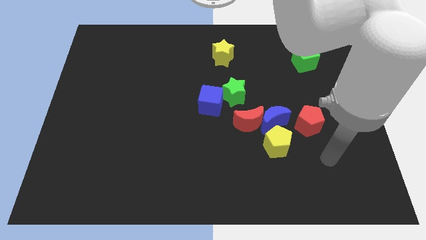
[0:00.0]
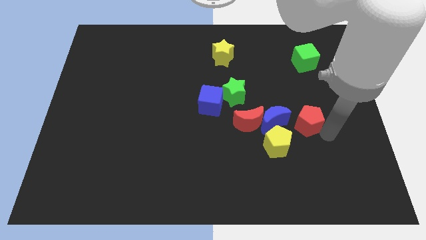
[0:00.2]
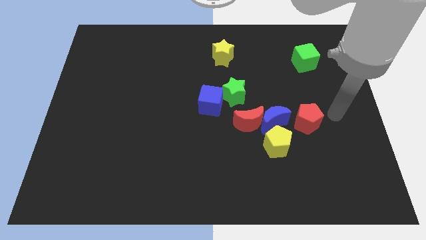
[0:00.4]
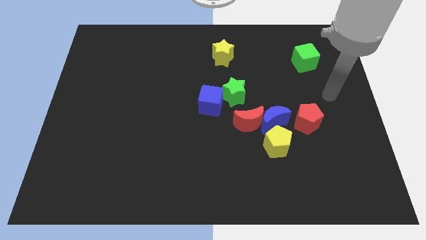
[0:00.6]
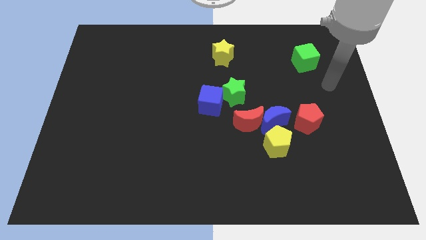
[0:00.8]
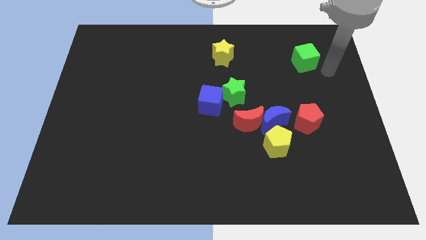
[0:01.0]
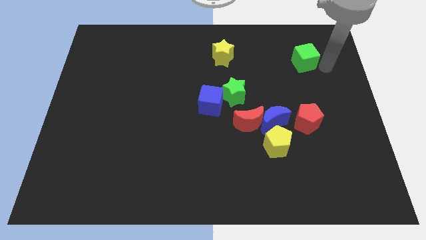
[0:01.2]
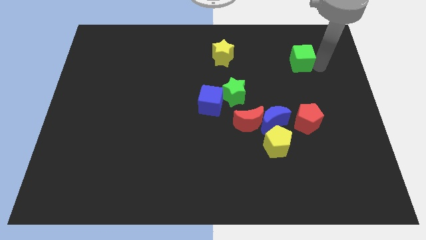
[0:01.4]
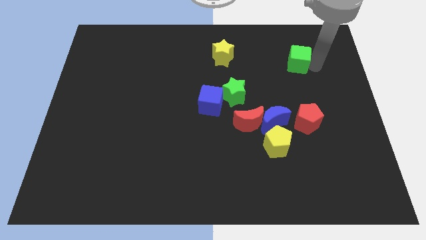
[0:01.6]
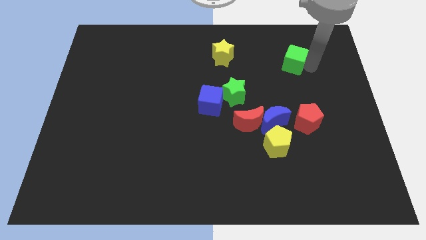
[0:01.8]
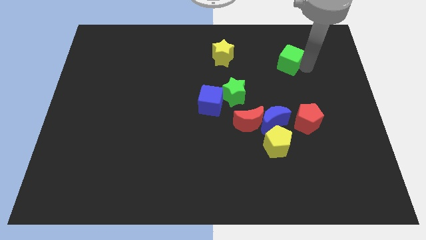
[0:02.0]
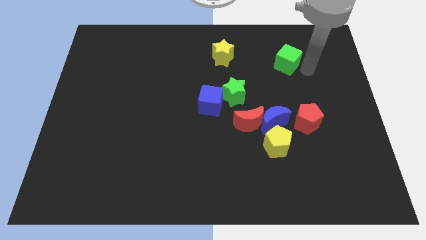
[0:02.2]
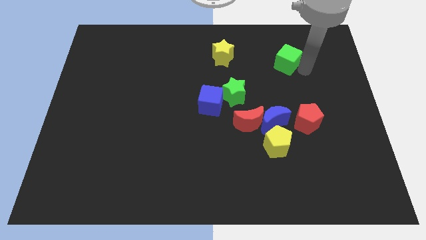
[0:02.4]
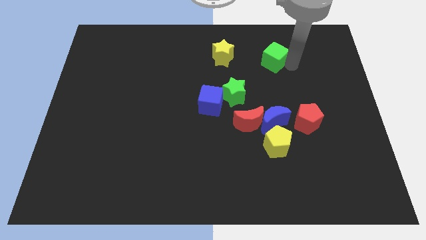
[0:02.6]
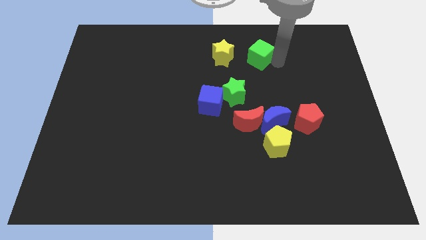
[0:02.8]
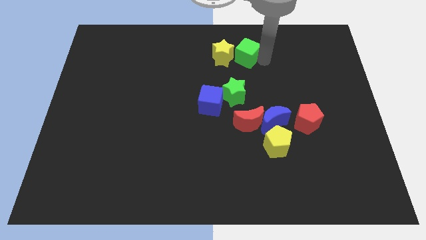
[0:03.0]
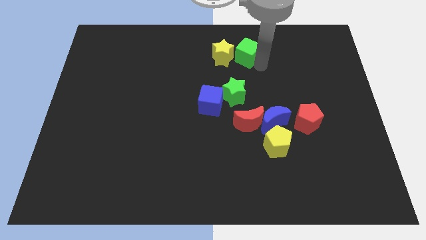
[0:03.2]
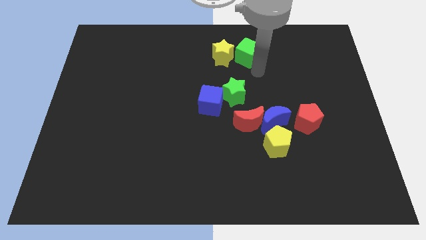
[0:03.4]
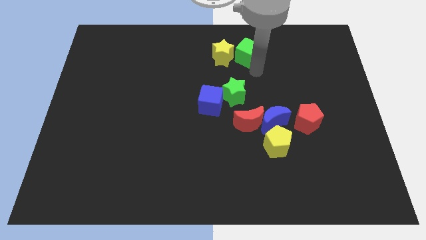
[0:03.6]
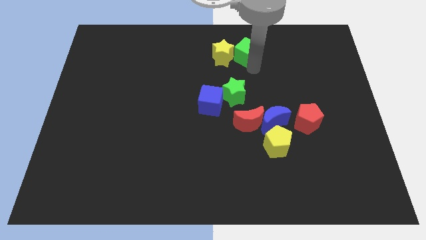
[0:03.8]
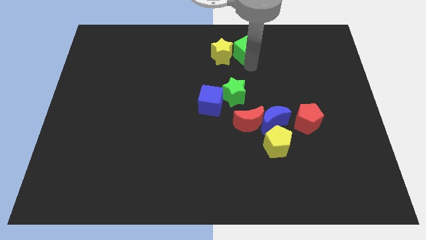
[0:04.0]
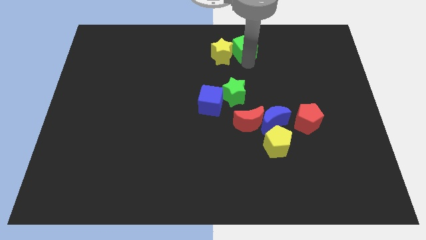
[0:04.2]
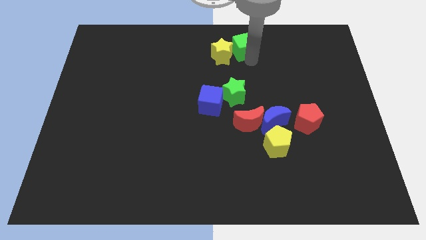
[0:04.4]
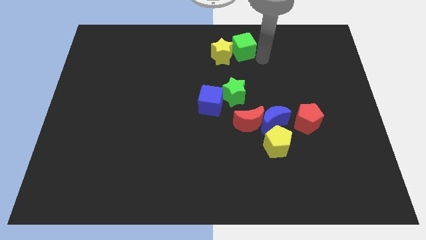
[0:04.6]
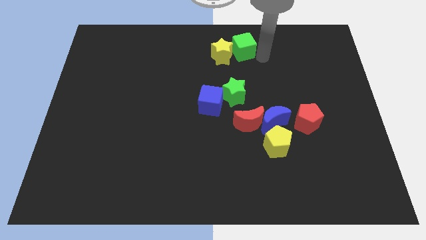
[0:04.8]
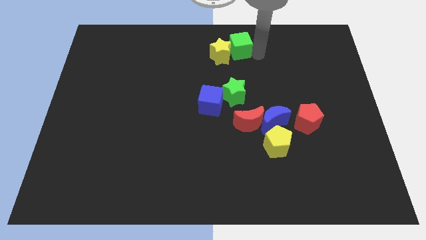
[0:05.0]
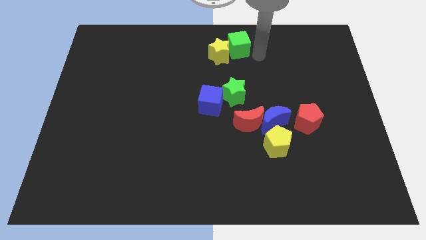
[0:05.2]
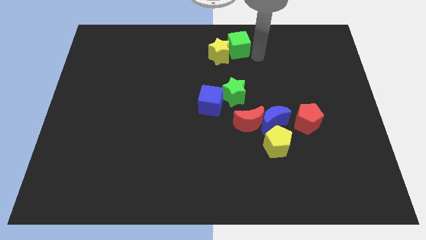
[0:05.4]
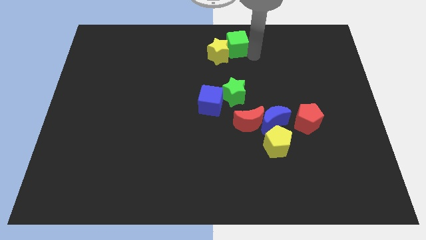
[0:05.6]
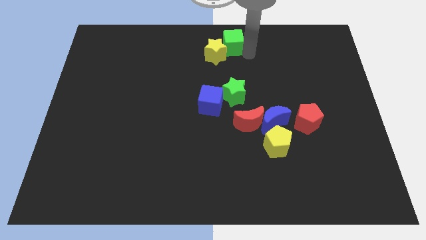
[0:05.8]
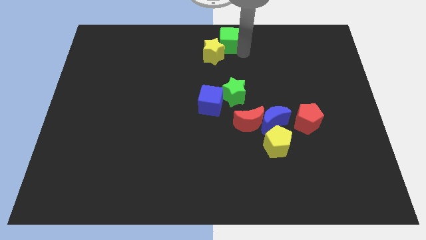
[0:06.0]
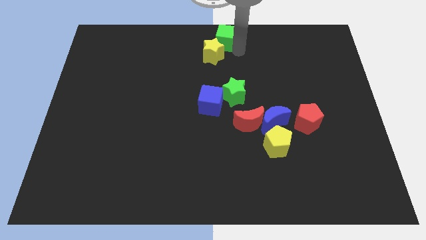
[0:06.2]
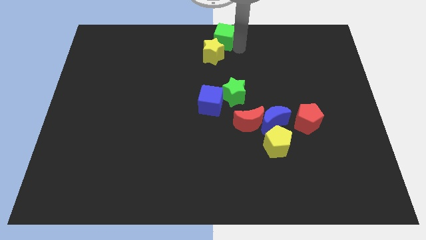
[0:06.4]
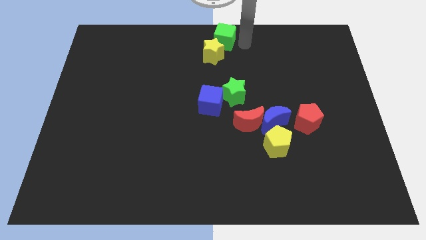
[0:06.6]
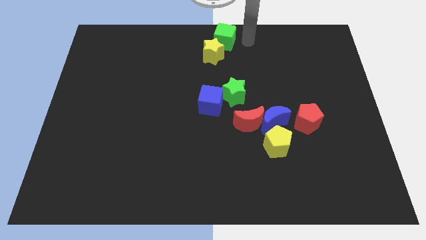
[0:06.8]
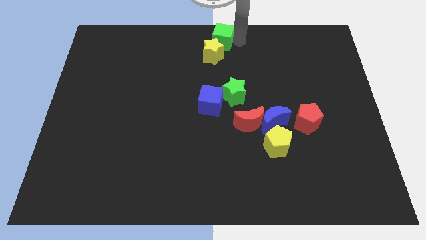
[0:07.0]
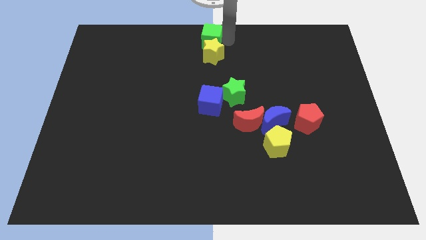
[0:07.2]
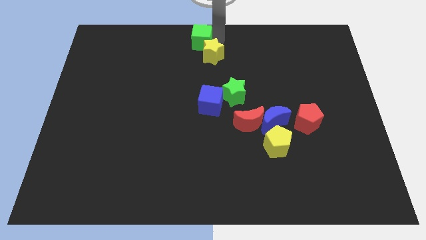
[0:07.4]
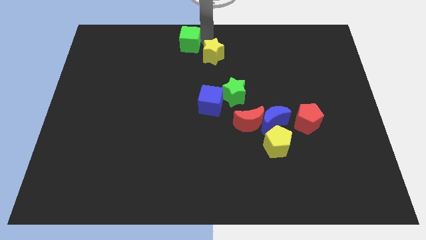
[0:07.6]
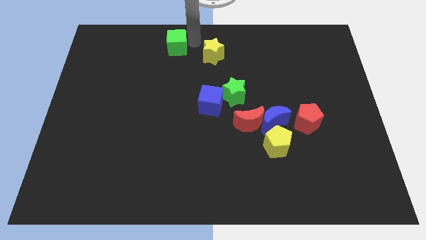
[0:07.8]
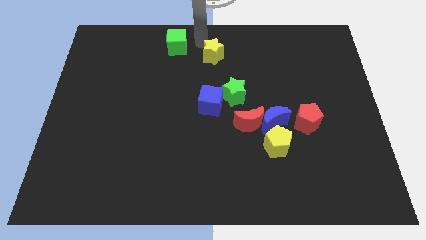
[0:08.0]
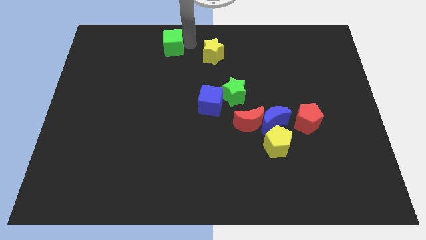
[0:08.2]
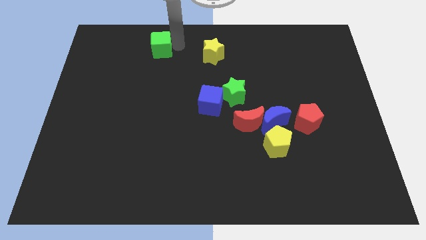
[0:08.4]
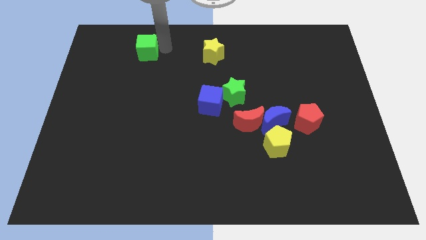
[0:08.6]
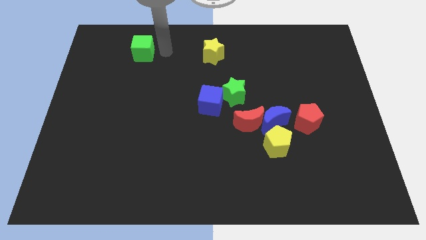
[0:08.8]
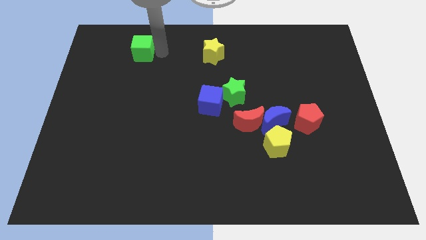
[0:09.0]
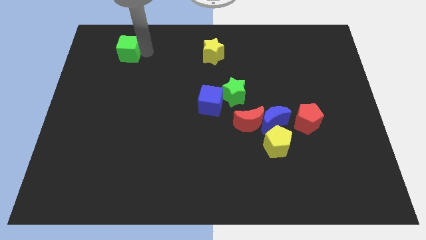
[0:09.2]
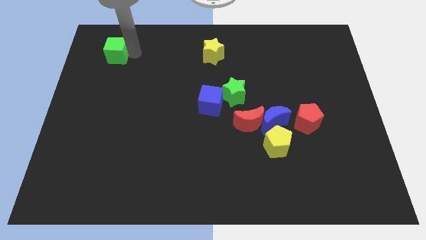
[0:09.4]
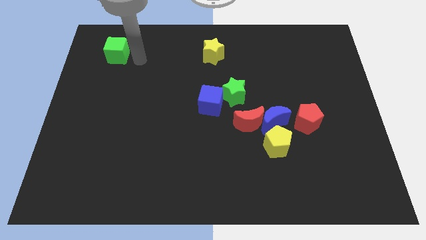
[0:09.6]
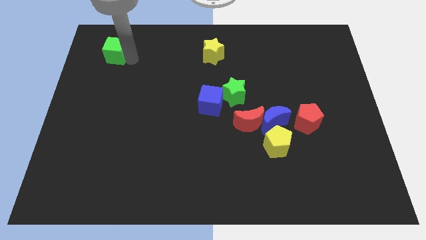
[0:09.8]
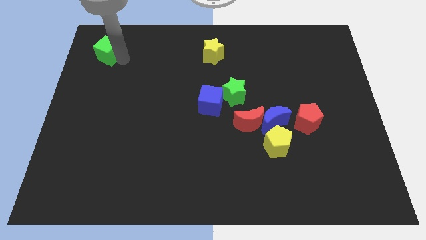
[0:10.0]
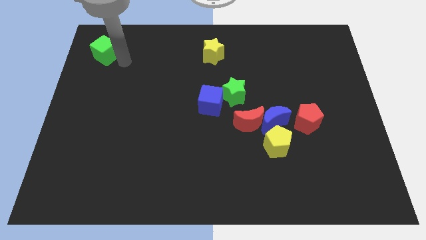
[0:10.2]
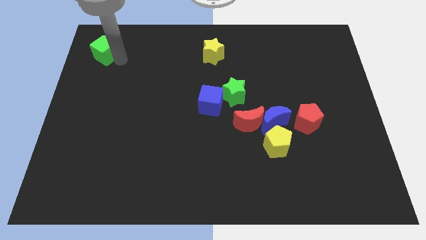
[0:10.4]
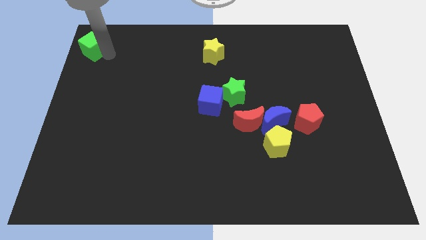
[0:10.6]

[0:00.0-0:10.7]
slide the green cube to the top left

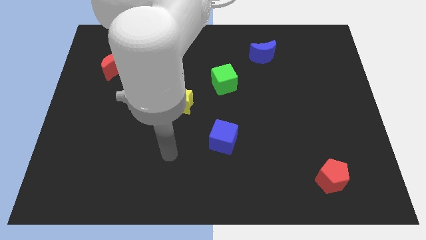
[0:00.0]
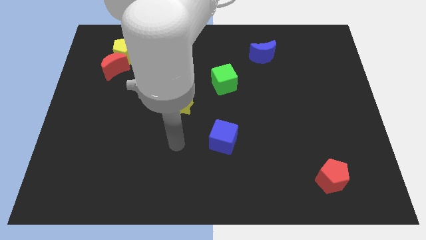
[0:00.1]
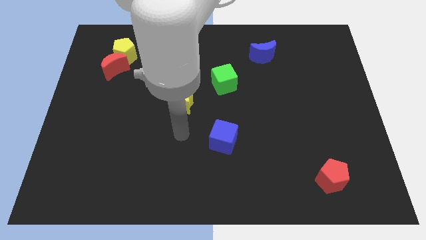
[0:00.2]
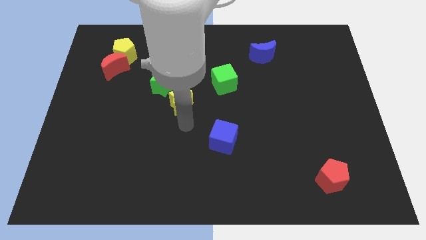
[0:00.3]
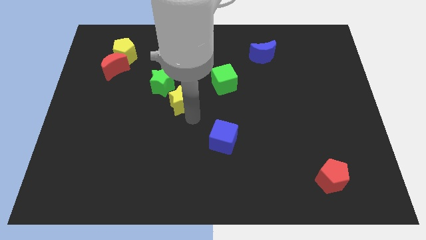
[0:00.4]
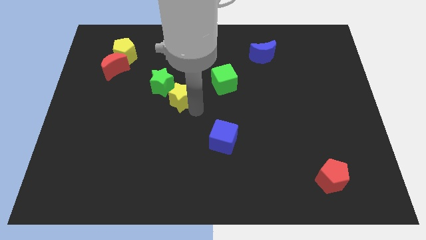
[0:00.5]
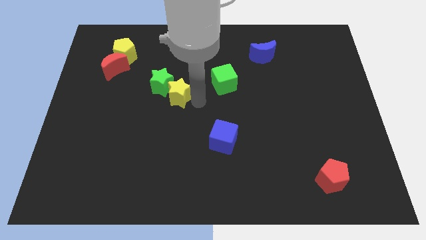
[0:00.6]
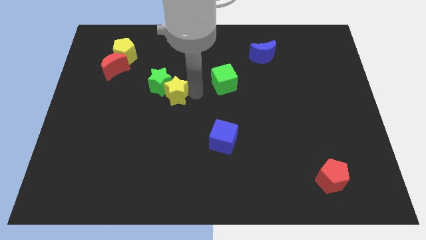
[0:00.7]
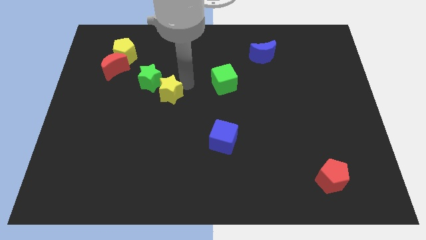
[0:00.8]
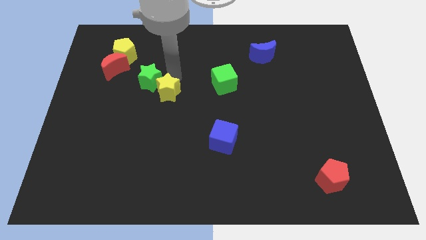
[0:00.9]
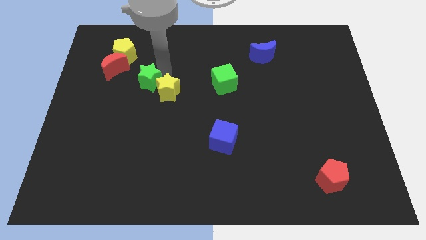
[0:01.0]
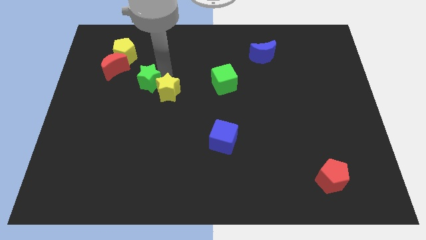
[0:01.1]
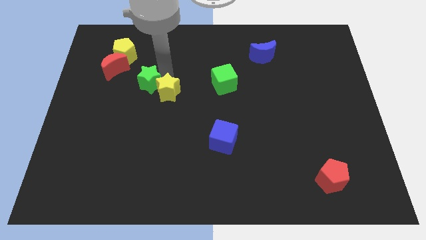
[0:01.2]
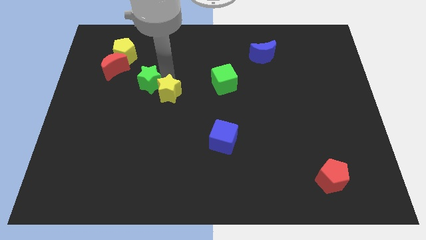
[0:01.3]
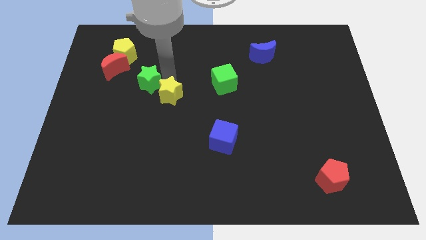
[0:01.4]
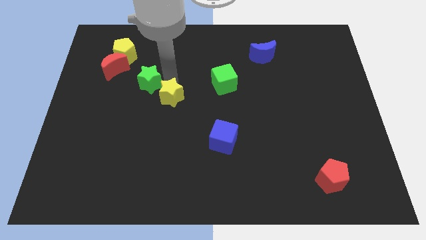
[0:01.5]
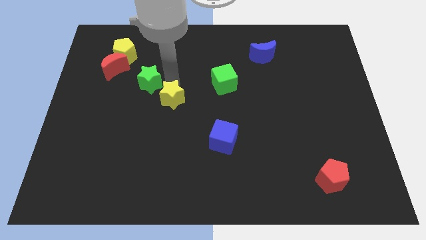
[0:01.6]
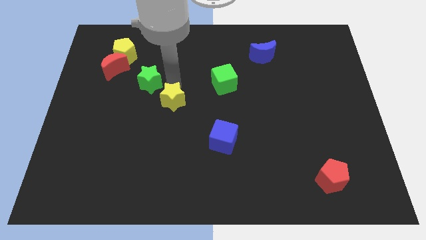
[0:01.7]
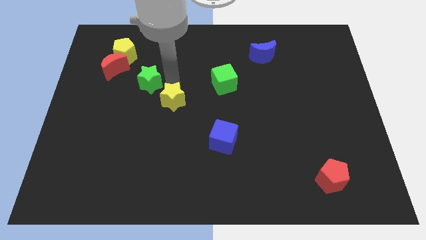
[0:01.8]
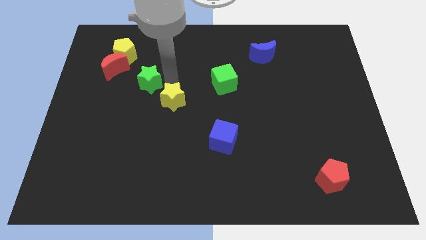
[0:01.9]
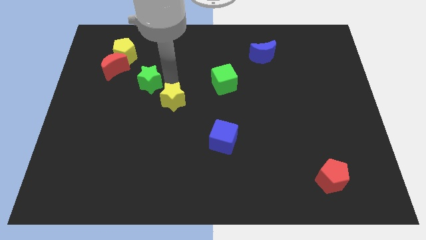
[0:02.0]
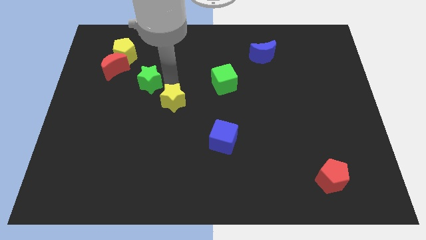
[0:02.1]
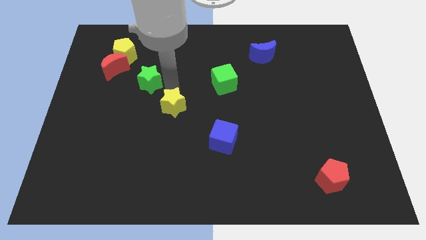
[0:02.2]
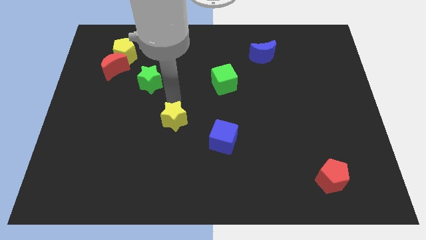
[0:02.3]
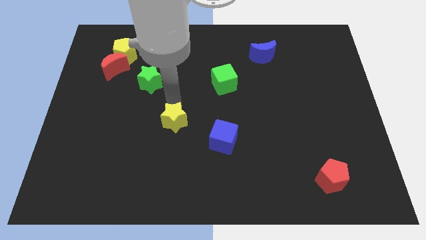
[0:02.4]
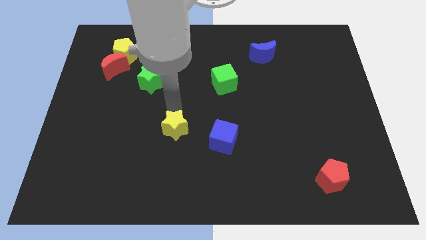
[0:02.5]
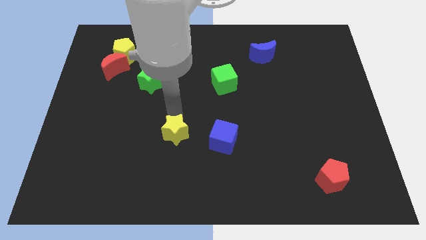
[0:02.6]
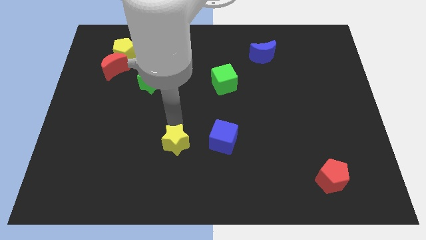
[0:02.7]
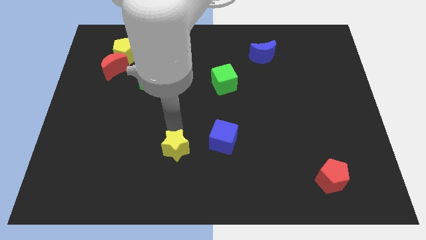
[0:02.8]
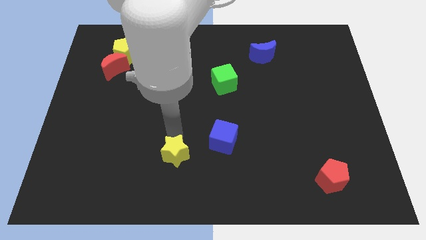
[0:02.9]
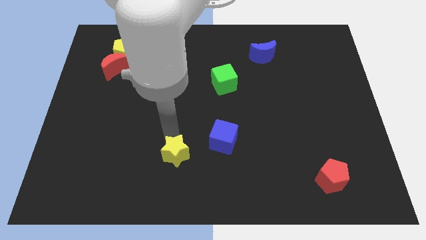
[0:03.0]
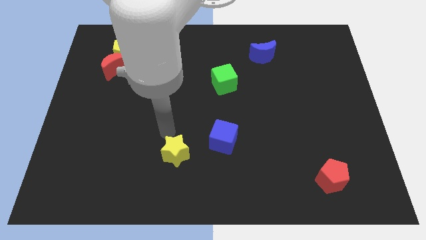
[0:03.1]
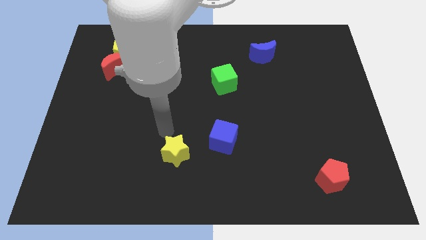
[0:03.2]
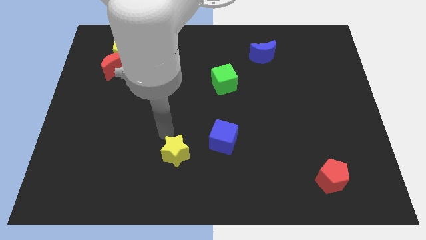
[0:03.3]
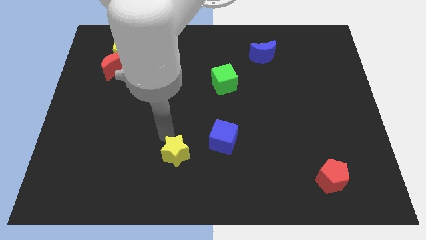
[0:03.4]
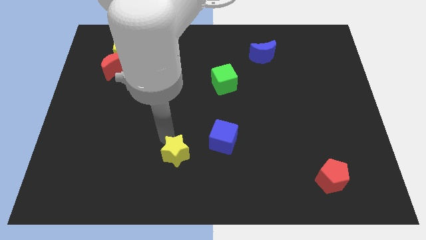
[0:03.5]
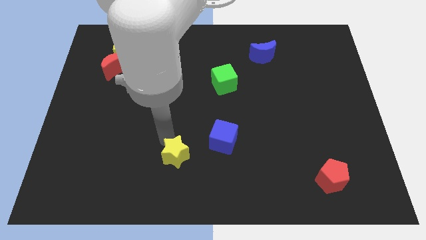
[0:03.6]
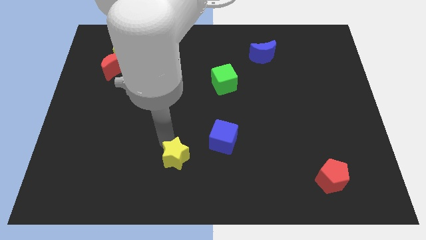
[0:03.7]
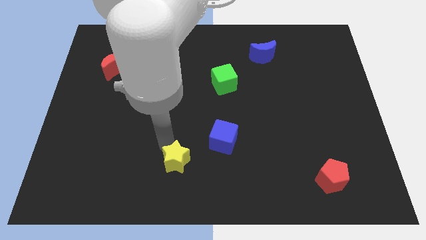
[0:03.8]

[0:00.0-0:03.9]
slide the yellow star to the bottom
